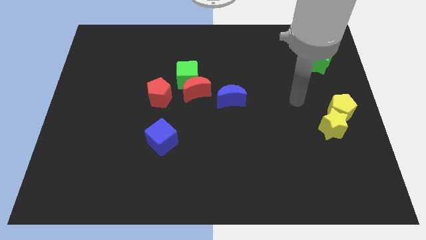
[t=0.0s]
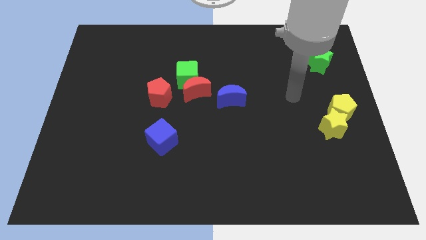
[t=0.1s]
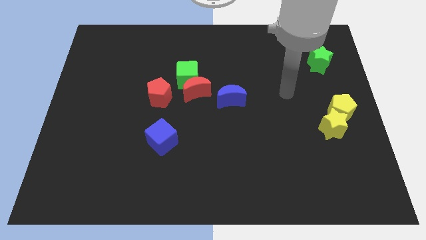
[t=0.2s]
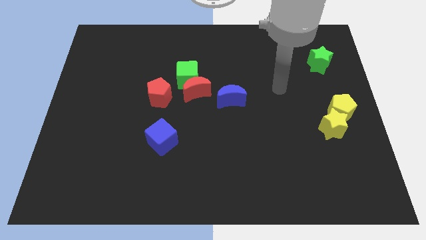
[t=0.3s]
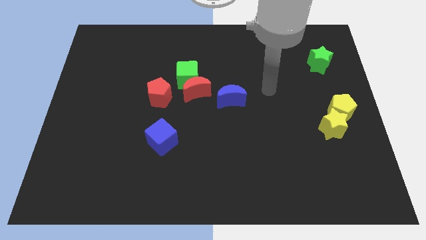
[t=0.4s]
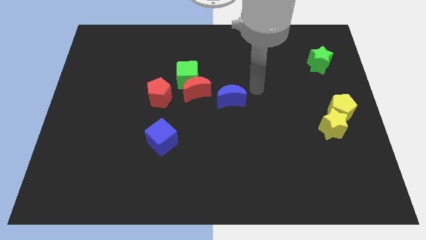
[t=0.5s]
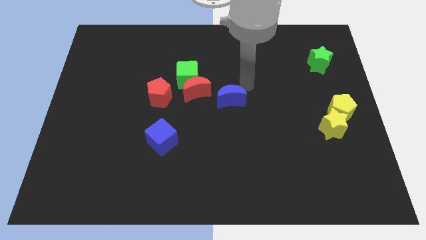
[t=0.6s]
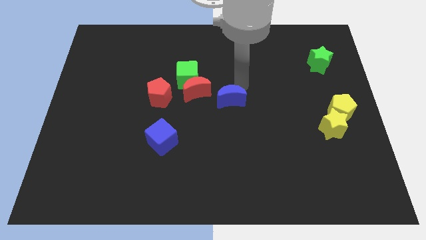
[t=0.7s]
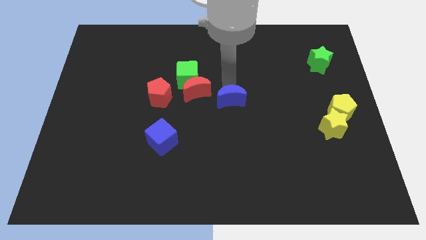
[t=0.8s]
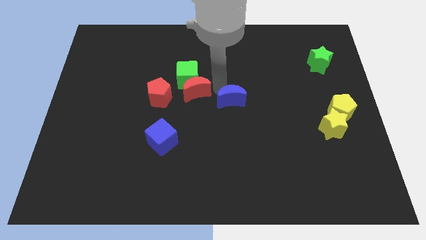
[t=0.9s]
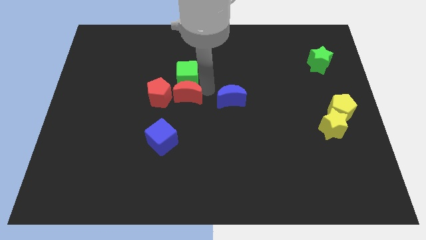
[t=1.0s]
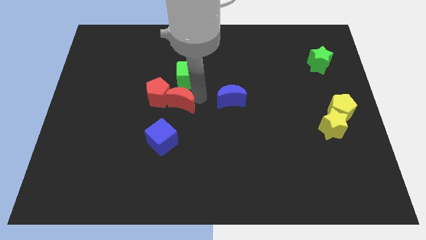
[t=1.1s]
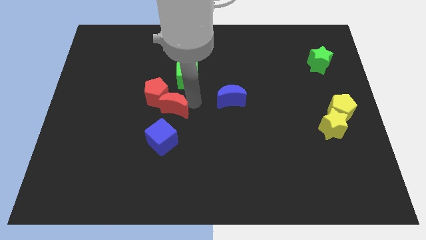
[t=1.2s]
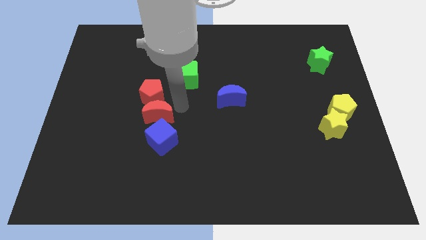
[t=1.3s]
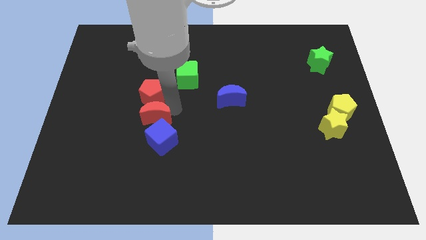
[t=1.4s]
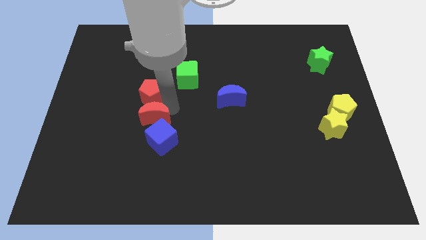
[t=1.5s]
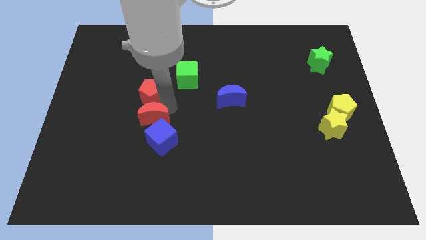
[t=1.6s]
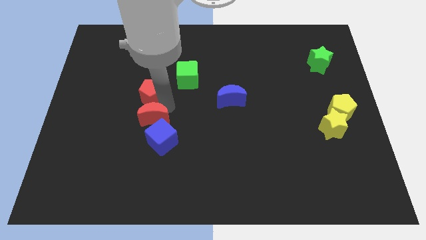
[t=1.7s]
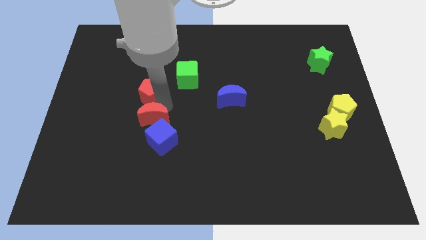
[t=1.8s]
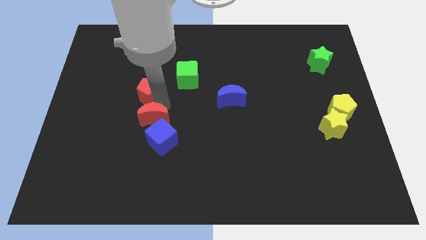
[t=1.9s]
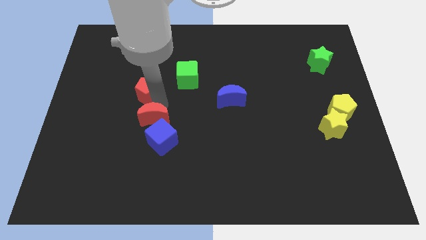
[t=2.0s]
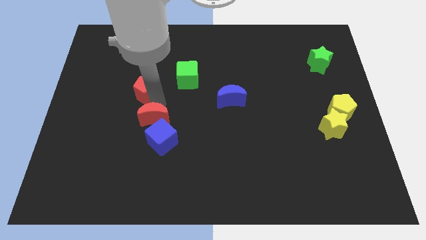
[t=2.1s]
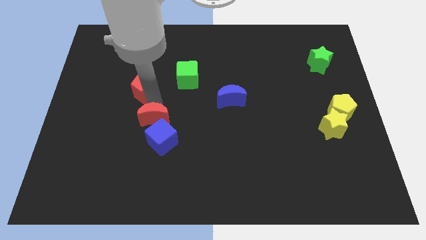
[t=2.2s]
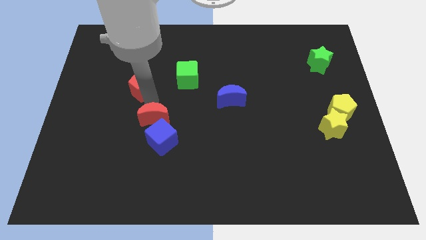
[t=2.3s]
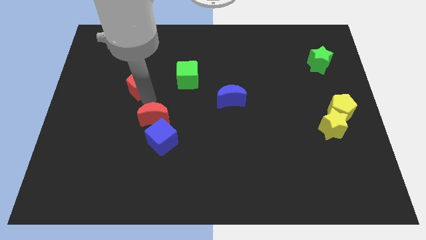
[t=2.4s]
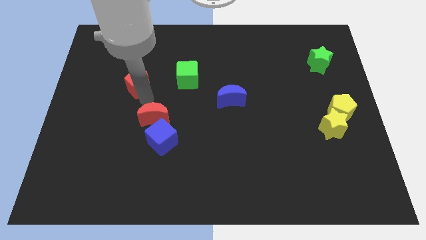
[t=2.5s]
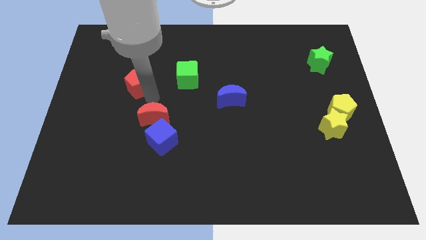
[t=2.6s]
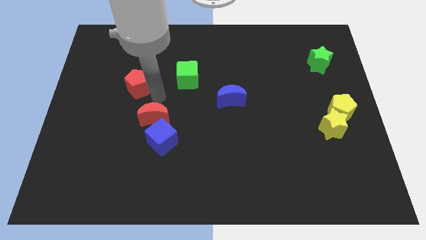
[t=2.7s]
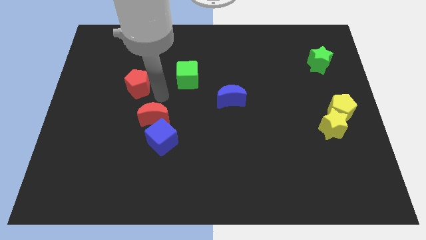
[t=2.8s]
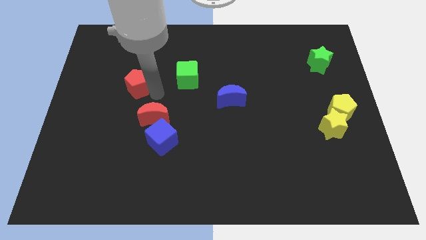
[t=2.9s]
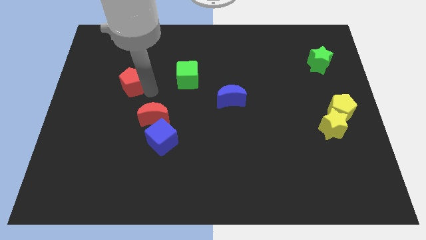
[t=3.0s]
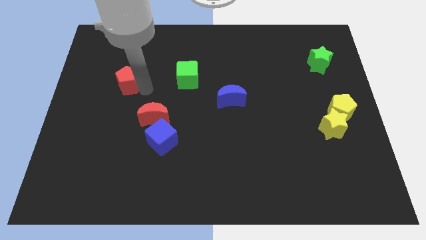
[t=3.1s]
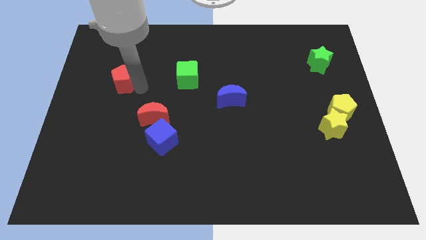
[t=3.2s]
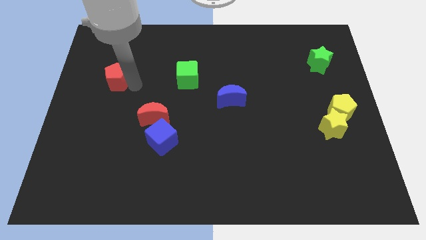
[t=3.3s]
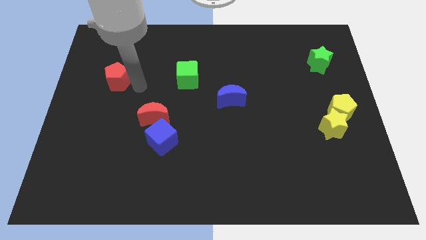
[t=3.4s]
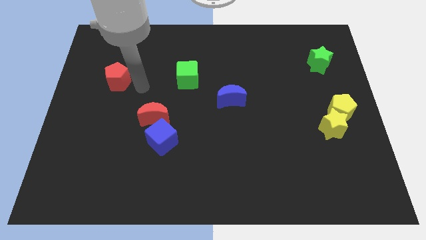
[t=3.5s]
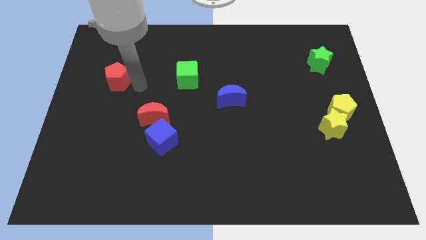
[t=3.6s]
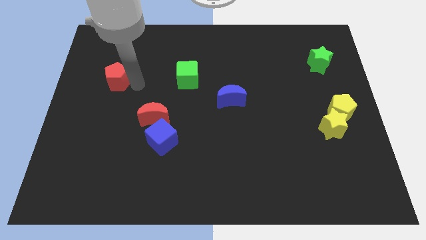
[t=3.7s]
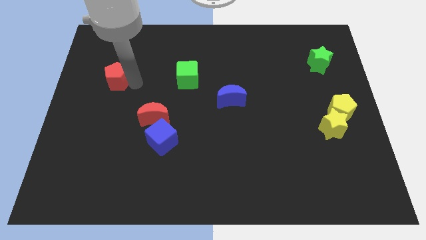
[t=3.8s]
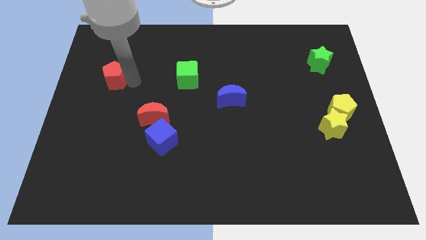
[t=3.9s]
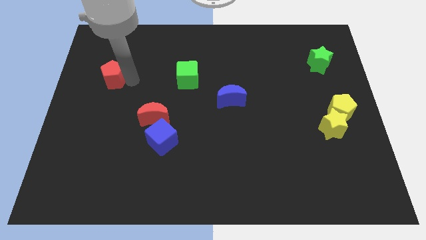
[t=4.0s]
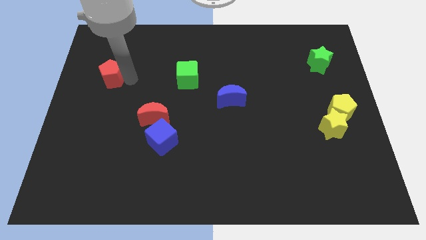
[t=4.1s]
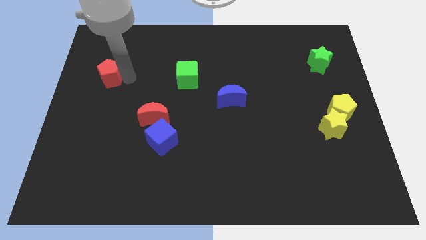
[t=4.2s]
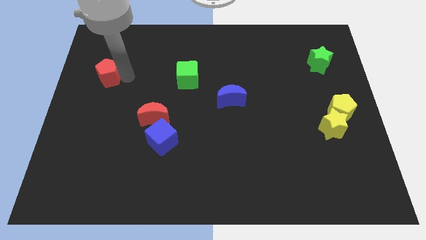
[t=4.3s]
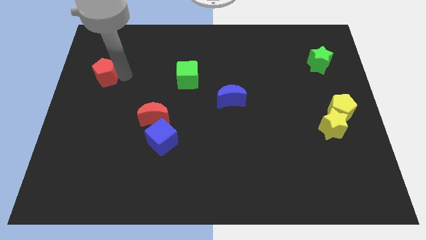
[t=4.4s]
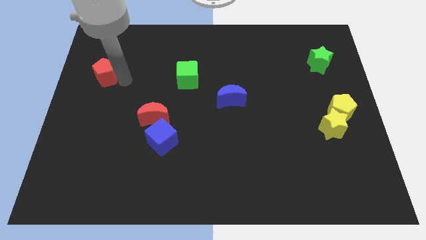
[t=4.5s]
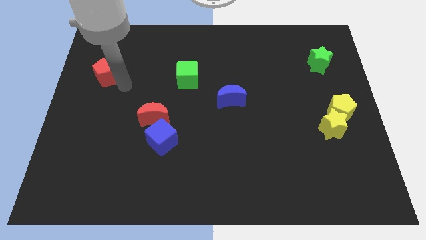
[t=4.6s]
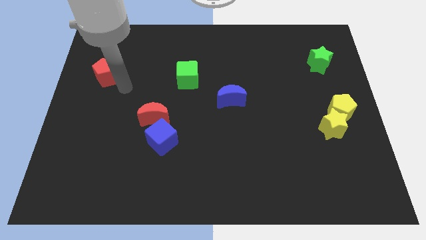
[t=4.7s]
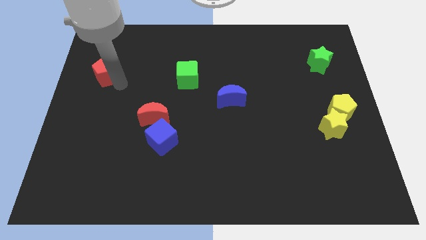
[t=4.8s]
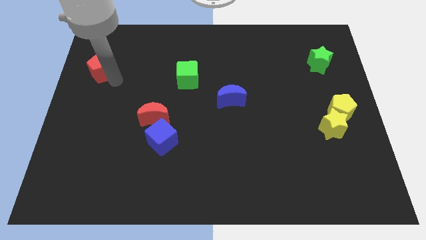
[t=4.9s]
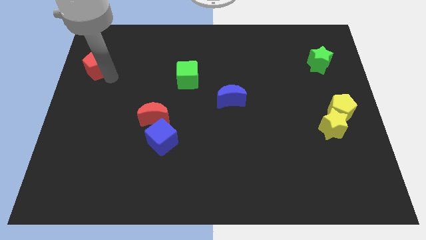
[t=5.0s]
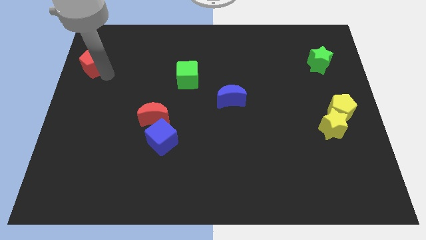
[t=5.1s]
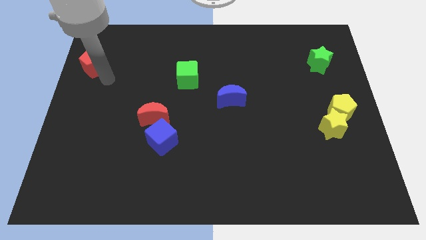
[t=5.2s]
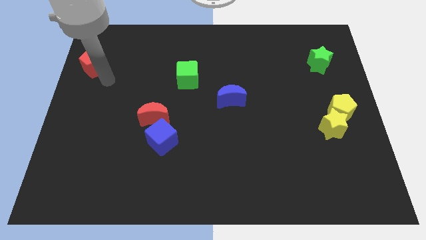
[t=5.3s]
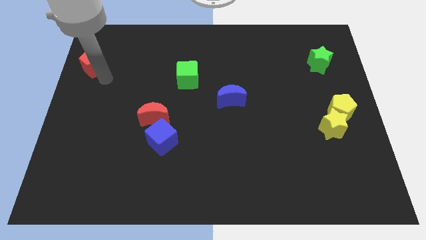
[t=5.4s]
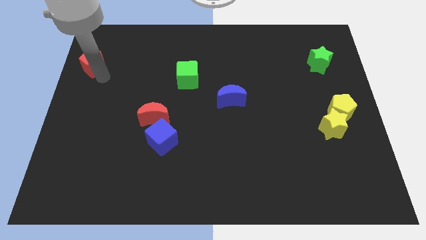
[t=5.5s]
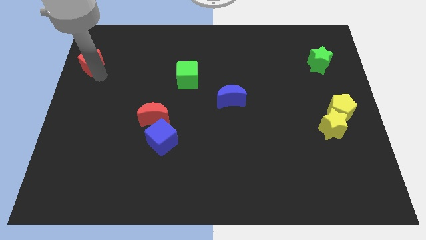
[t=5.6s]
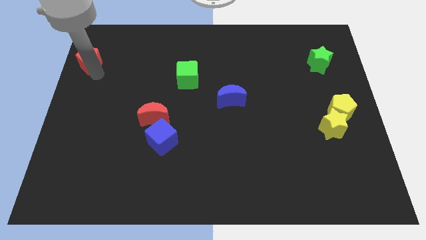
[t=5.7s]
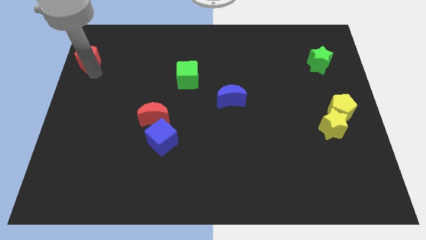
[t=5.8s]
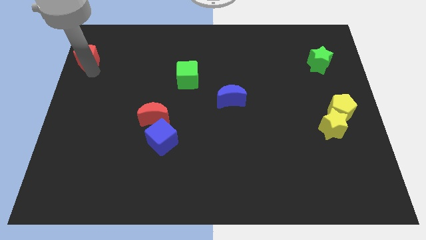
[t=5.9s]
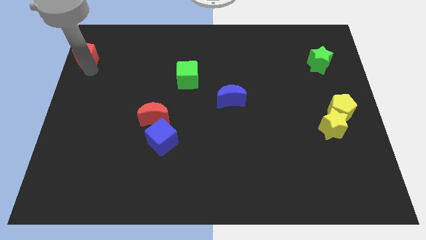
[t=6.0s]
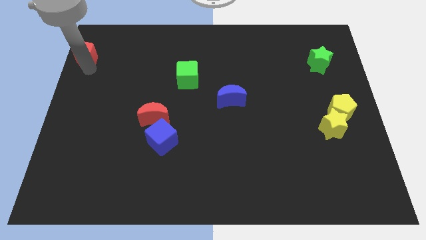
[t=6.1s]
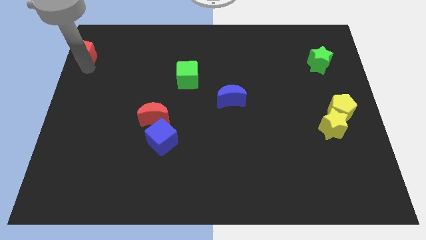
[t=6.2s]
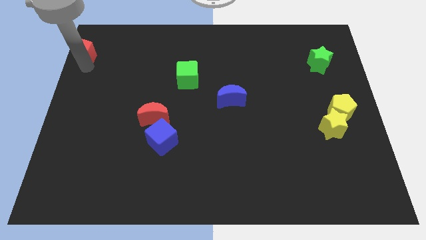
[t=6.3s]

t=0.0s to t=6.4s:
move the red pentagon to the top left
